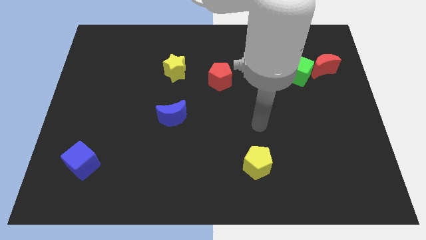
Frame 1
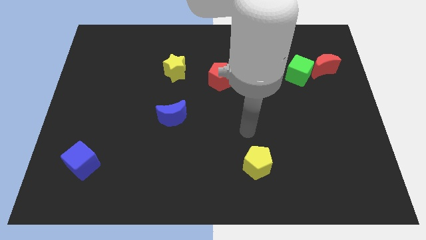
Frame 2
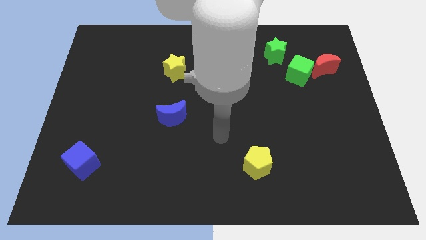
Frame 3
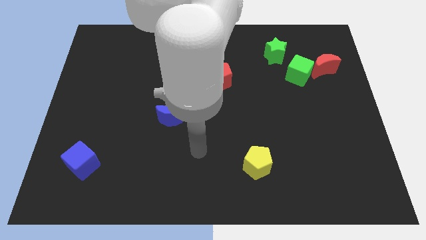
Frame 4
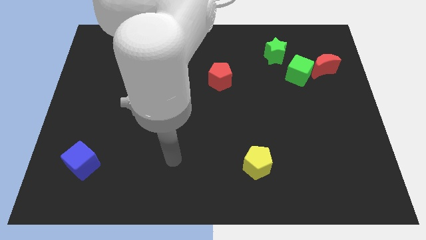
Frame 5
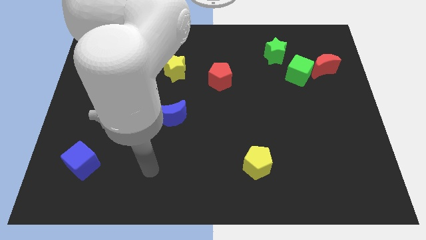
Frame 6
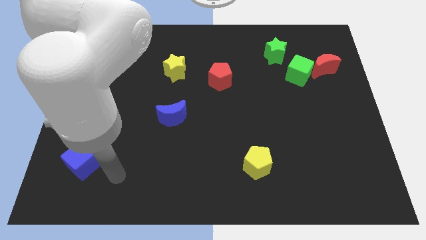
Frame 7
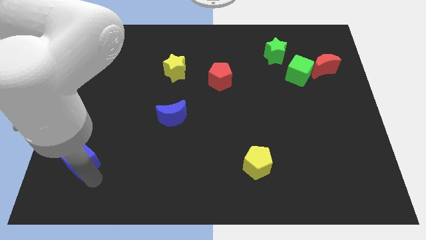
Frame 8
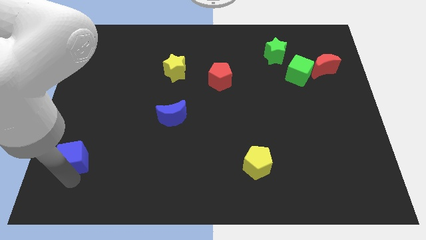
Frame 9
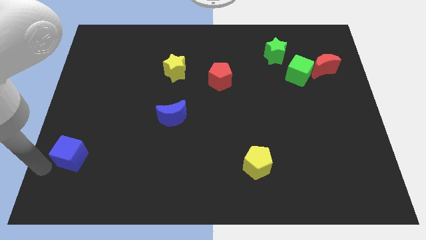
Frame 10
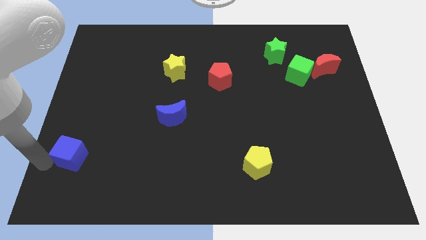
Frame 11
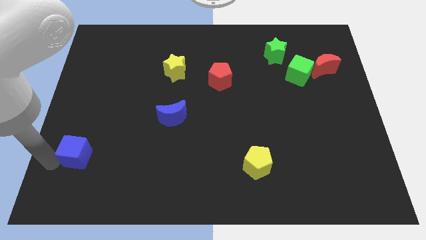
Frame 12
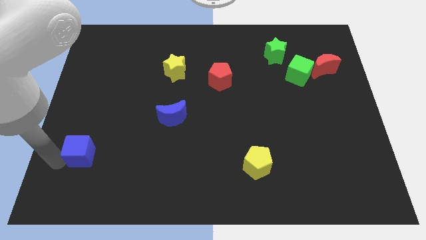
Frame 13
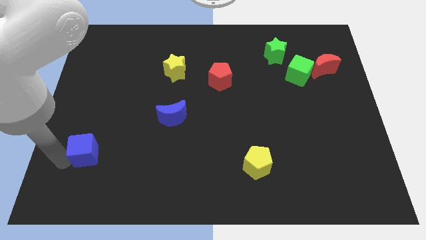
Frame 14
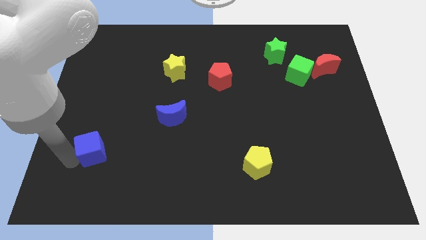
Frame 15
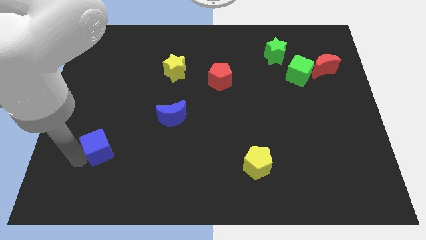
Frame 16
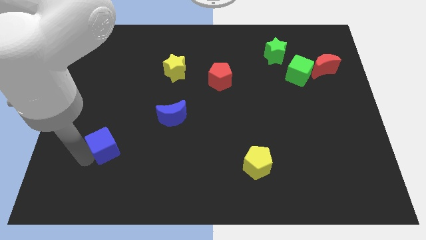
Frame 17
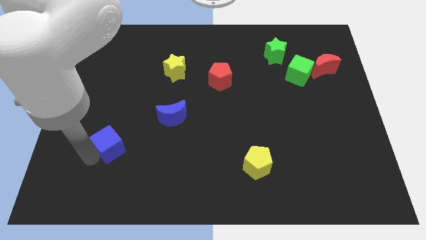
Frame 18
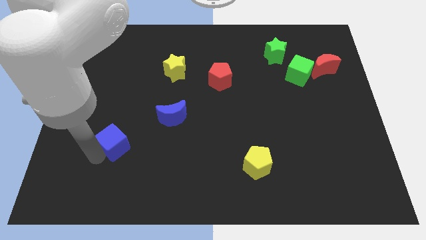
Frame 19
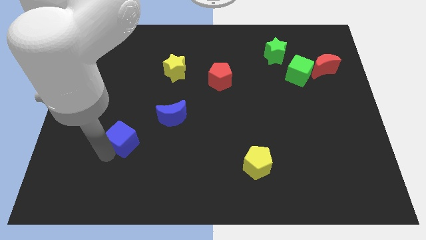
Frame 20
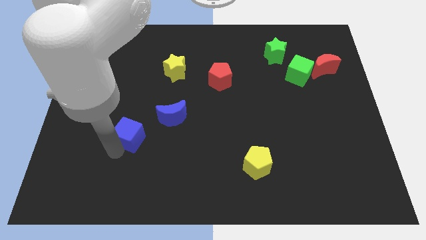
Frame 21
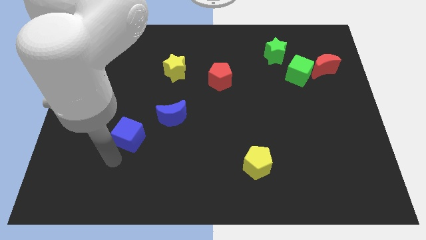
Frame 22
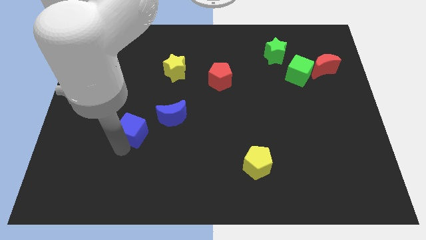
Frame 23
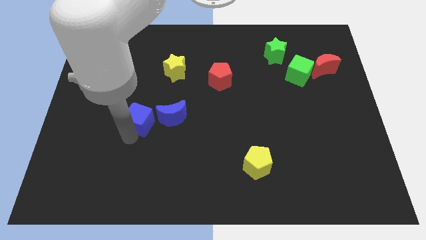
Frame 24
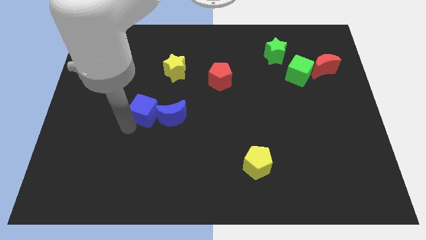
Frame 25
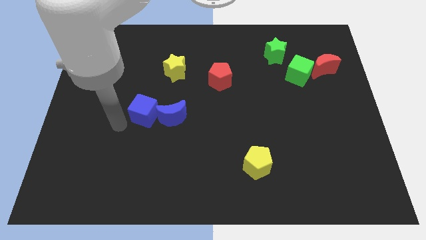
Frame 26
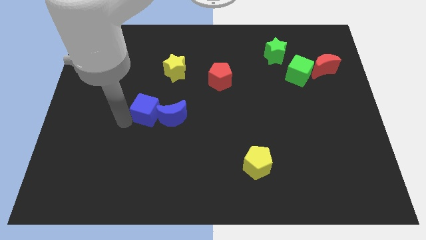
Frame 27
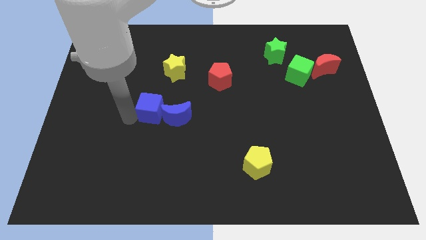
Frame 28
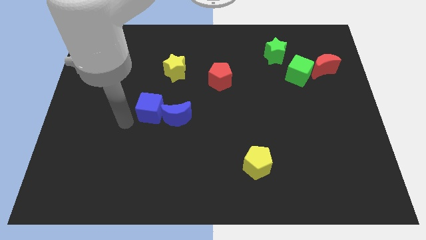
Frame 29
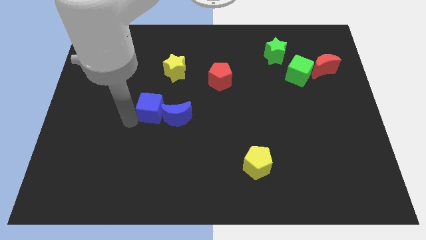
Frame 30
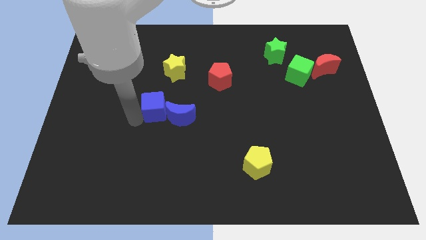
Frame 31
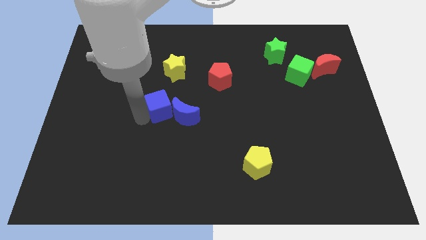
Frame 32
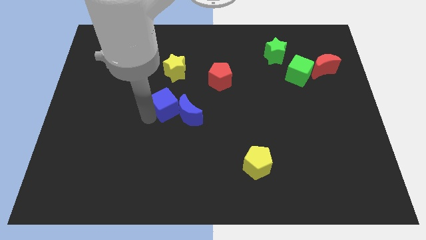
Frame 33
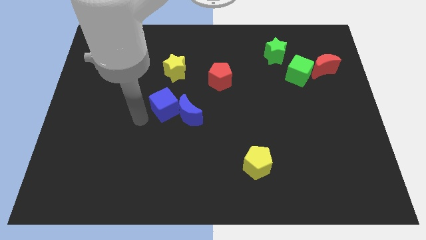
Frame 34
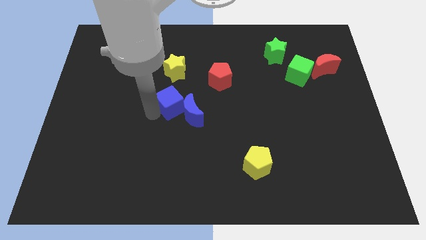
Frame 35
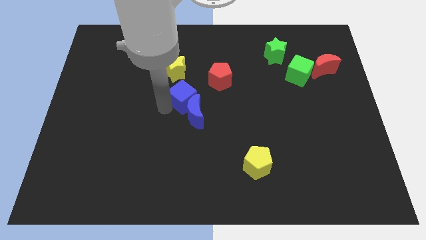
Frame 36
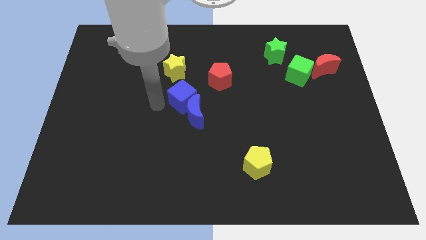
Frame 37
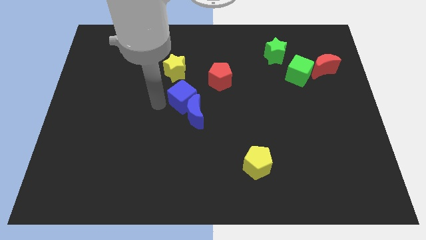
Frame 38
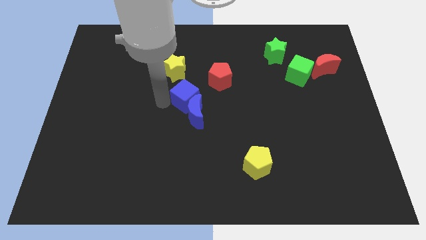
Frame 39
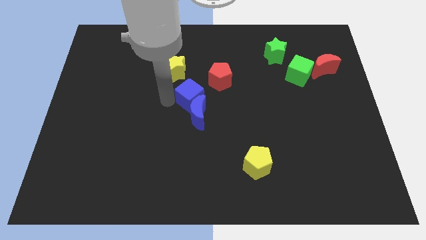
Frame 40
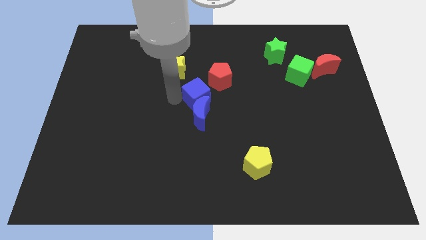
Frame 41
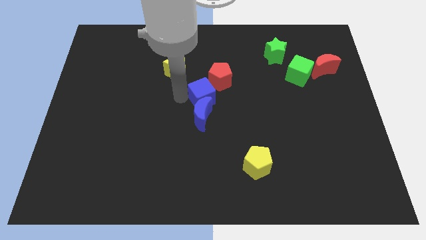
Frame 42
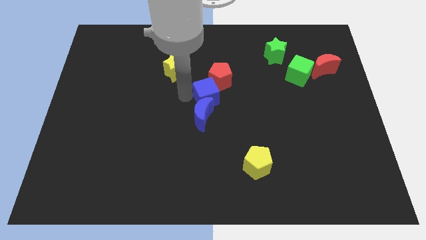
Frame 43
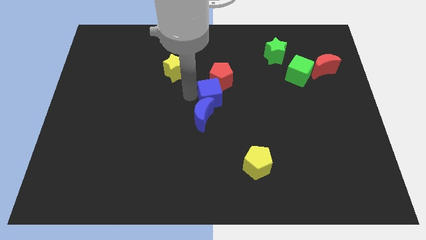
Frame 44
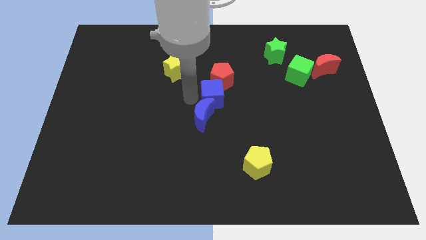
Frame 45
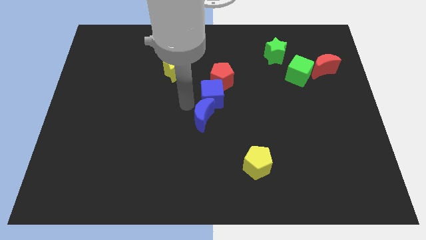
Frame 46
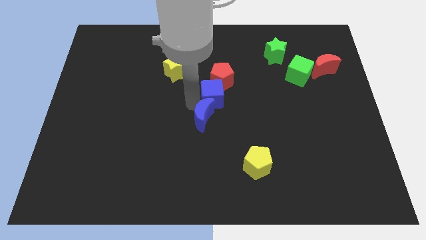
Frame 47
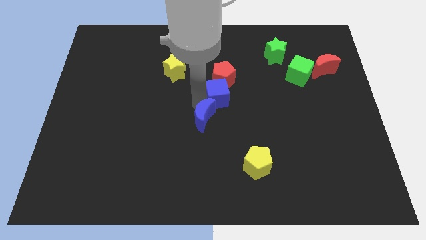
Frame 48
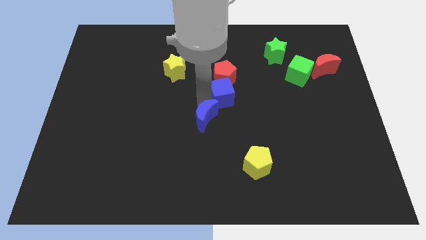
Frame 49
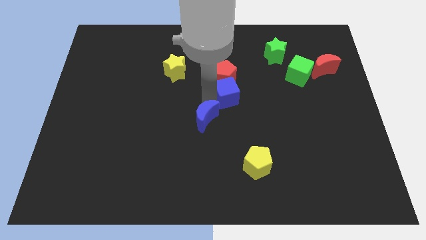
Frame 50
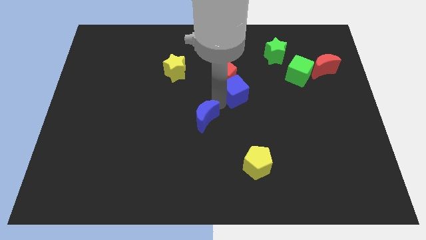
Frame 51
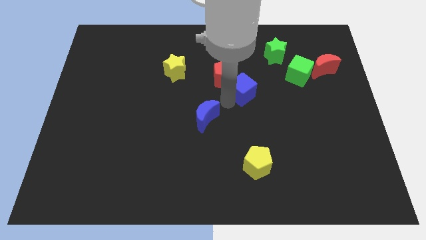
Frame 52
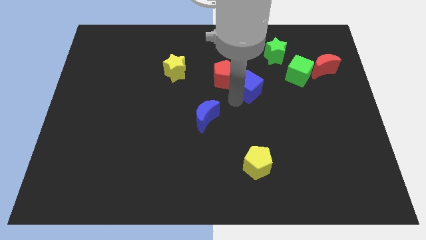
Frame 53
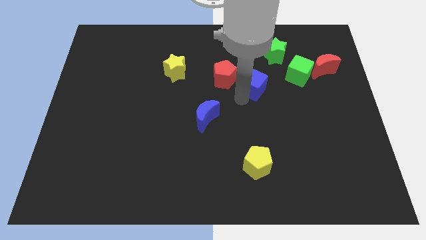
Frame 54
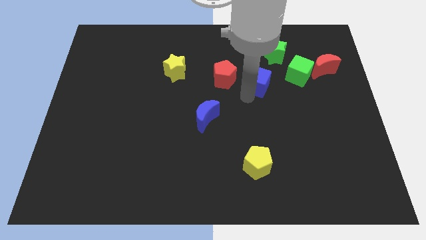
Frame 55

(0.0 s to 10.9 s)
slide the blue cube to the bottom left side of the green star

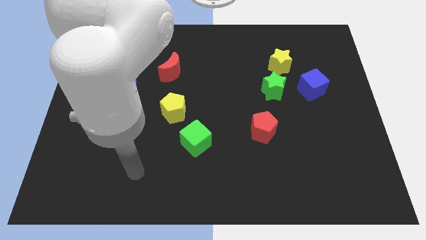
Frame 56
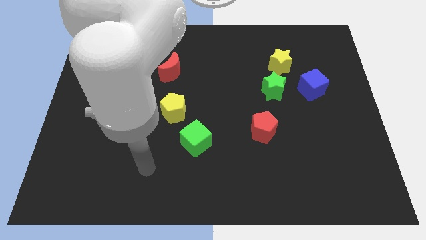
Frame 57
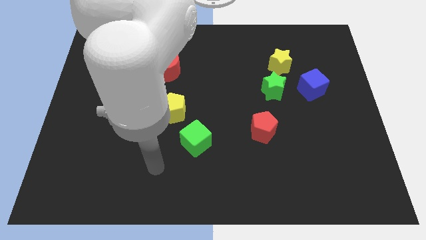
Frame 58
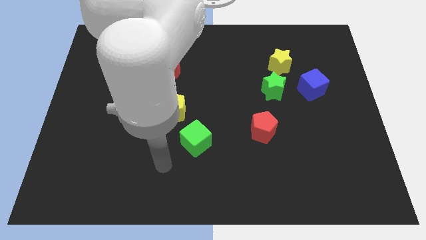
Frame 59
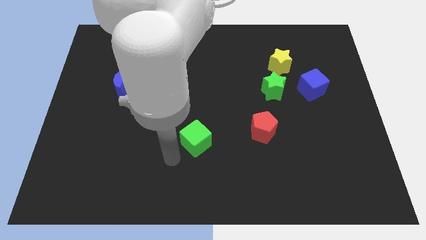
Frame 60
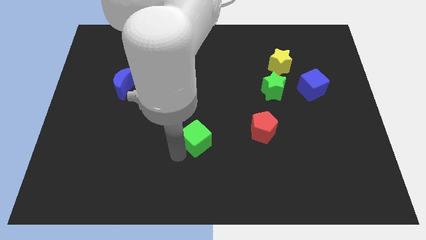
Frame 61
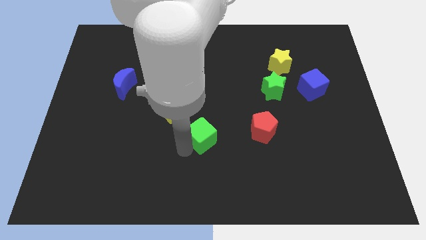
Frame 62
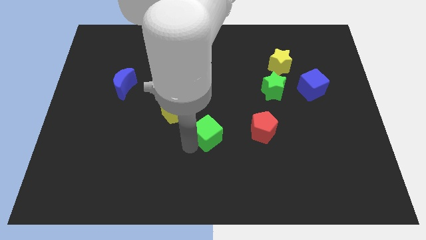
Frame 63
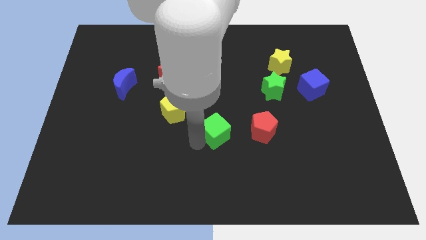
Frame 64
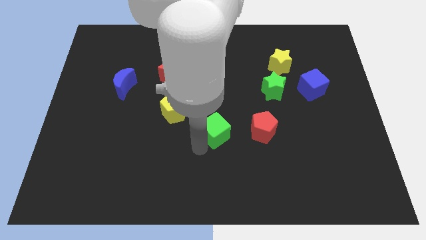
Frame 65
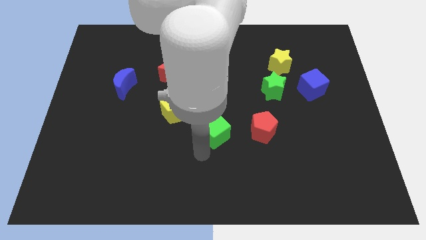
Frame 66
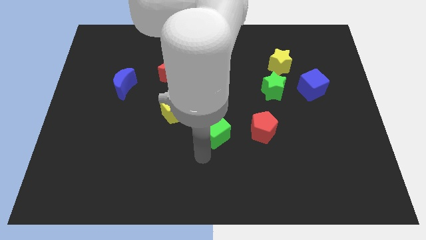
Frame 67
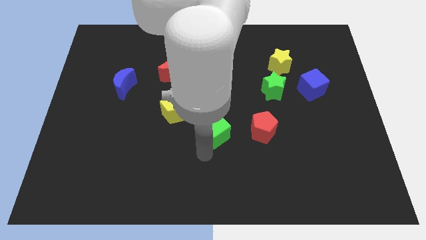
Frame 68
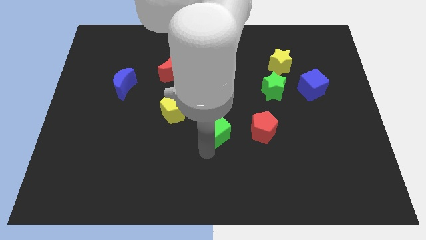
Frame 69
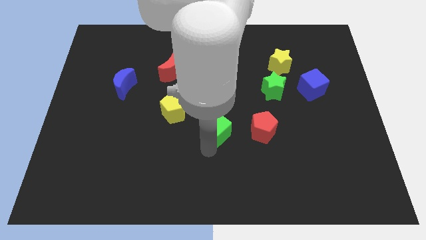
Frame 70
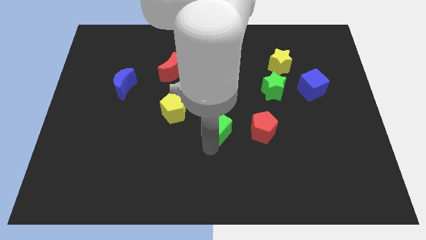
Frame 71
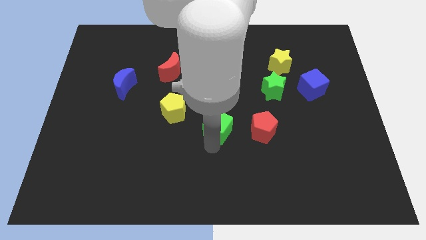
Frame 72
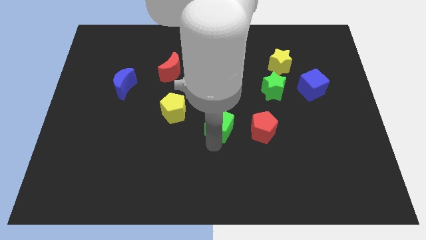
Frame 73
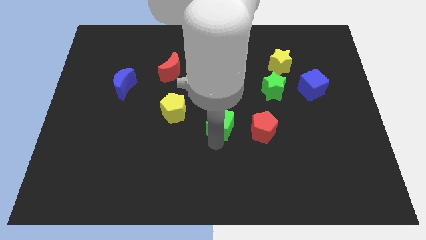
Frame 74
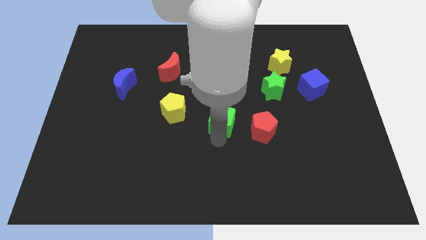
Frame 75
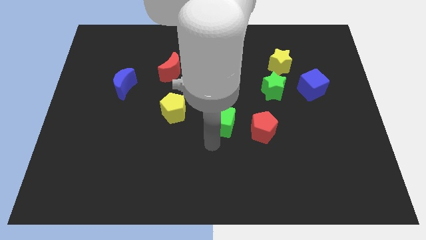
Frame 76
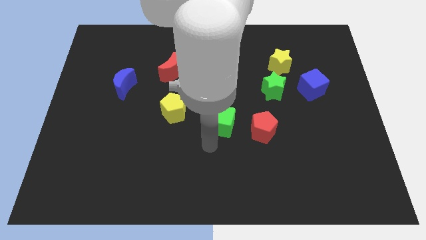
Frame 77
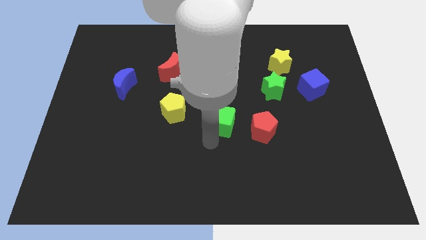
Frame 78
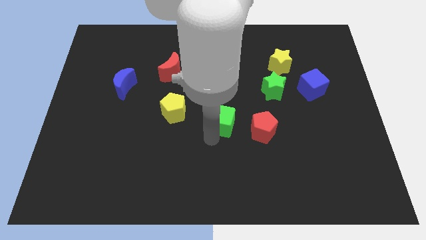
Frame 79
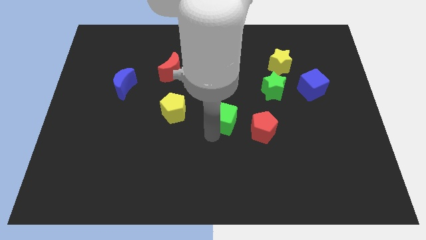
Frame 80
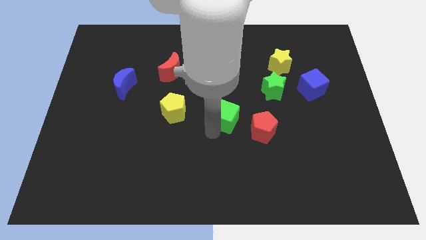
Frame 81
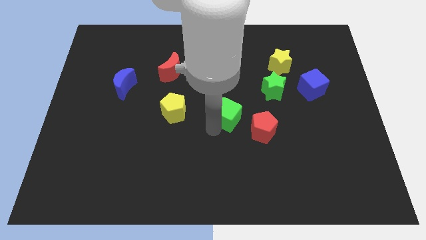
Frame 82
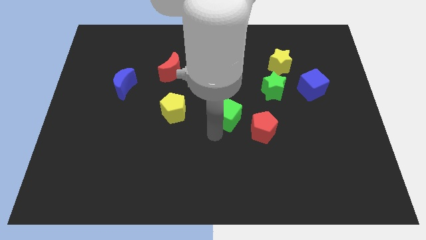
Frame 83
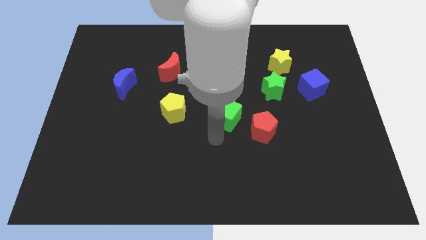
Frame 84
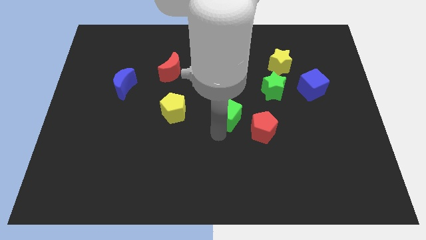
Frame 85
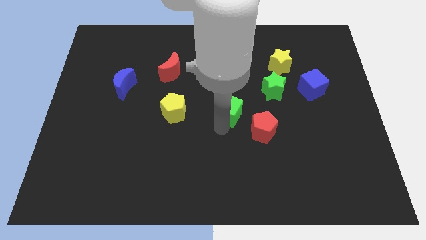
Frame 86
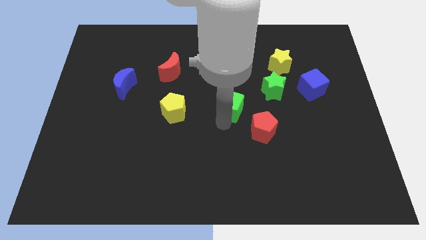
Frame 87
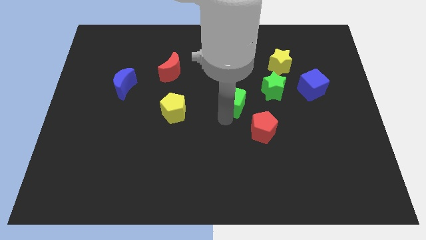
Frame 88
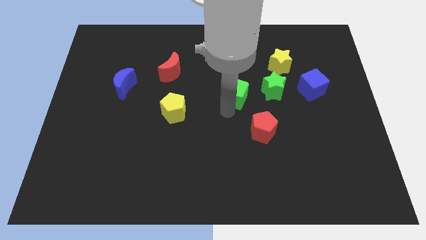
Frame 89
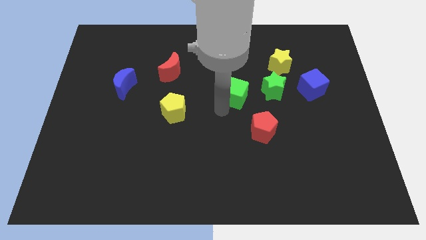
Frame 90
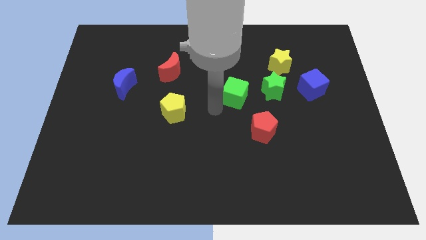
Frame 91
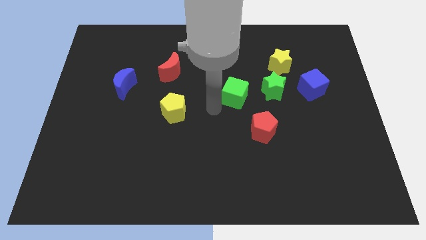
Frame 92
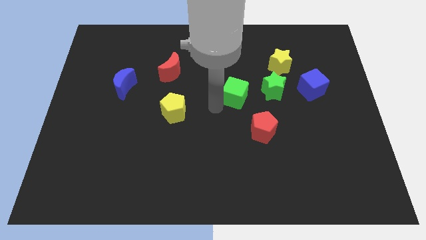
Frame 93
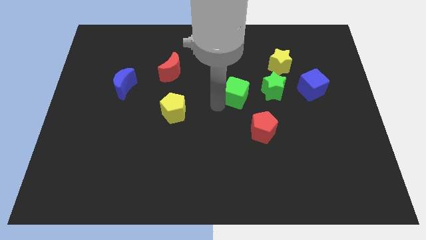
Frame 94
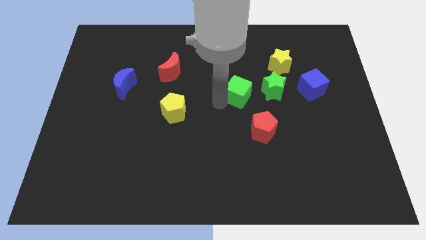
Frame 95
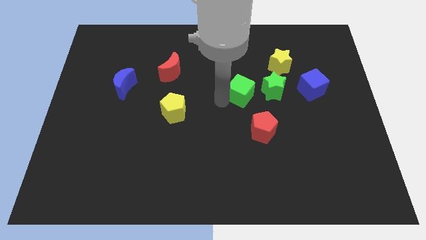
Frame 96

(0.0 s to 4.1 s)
move the green cube to the top side of the red pentagon
